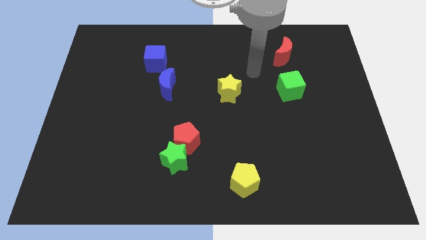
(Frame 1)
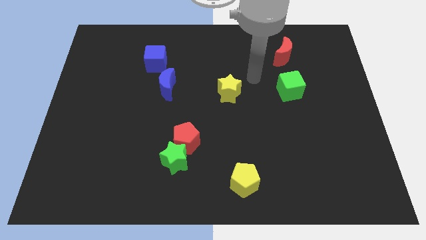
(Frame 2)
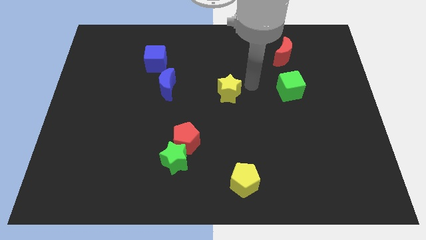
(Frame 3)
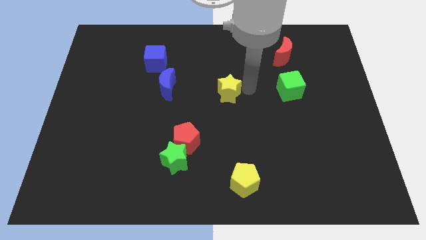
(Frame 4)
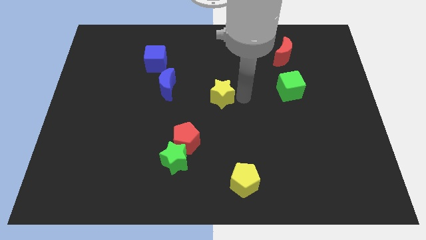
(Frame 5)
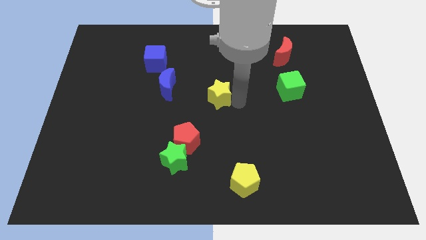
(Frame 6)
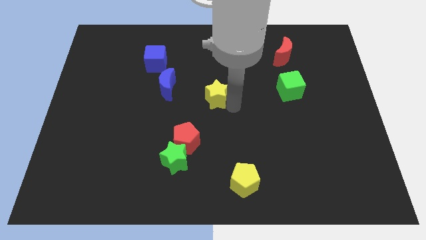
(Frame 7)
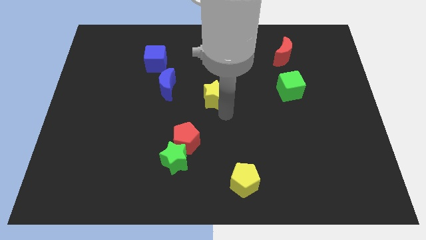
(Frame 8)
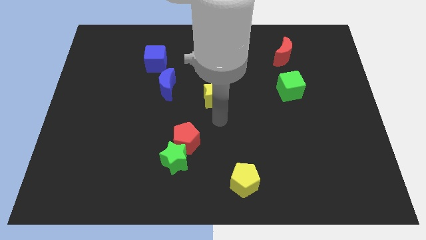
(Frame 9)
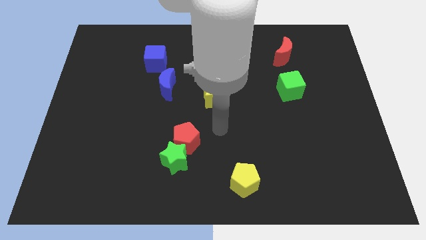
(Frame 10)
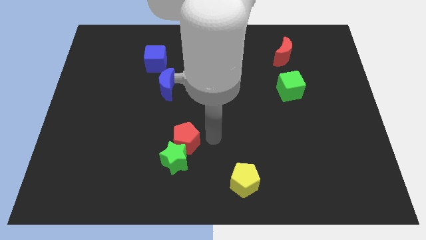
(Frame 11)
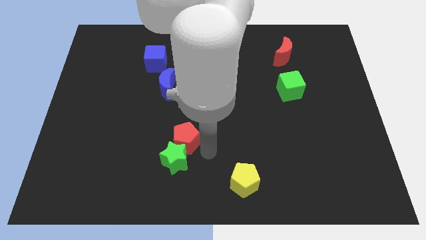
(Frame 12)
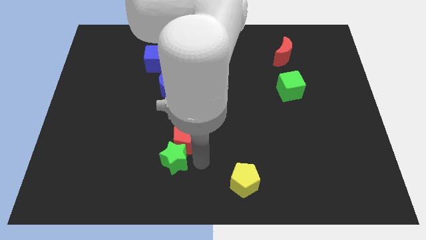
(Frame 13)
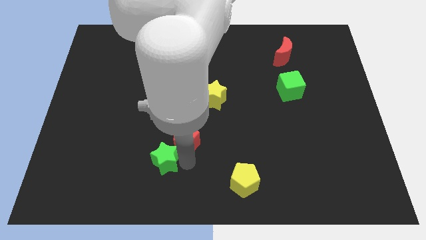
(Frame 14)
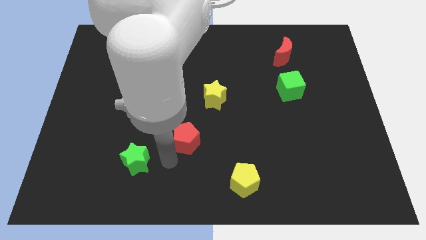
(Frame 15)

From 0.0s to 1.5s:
pull the red pentagon apart from the green star

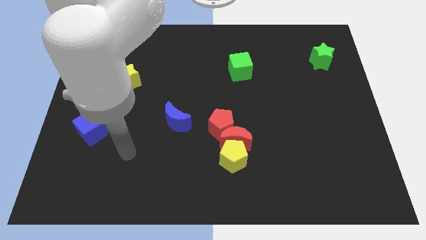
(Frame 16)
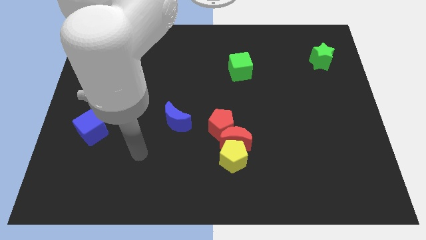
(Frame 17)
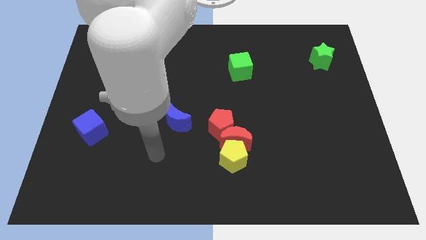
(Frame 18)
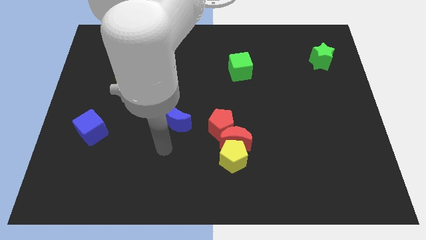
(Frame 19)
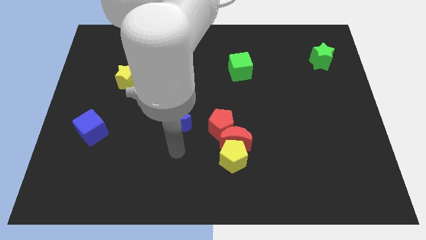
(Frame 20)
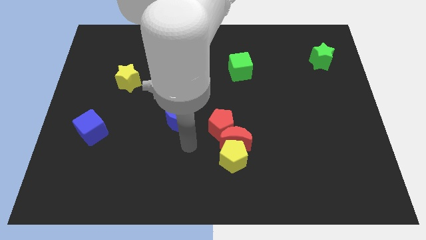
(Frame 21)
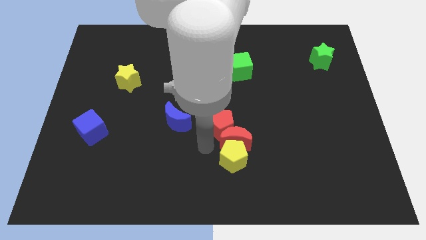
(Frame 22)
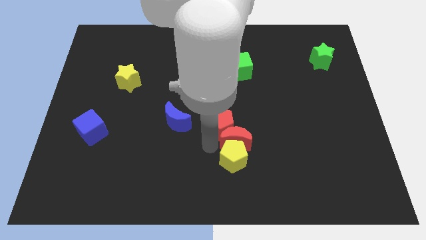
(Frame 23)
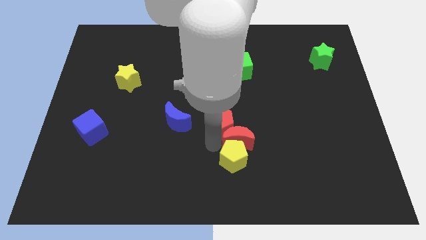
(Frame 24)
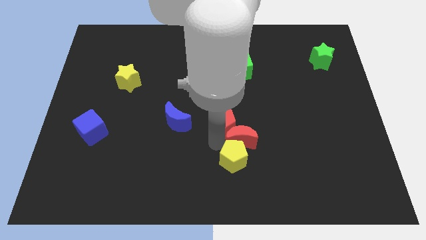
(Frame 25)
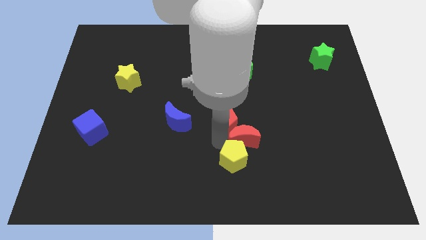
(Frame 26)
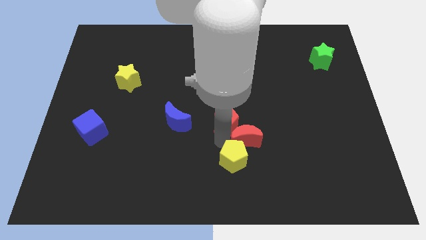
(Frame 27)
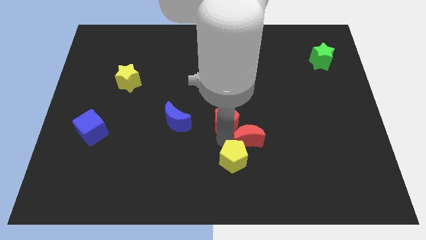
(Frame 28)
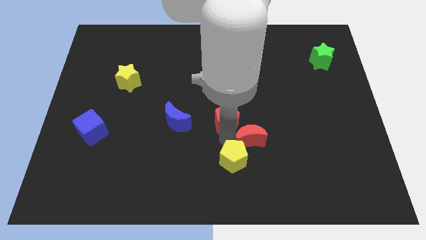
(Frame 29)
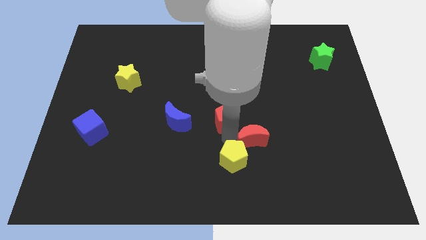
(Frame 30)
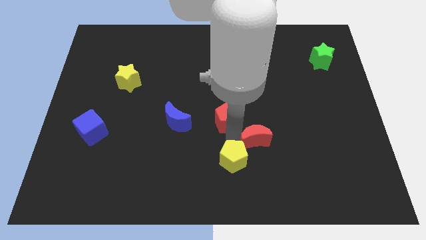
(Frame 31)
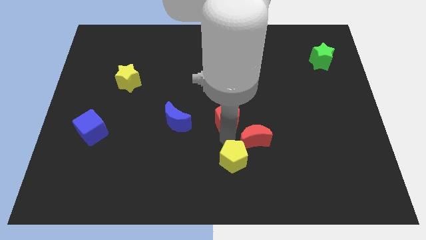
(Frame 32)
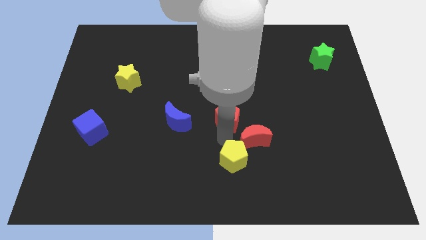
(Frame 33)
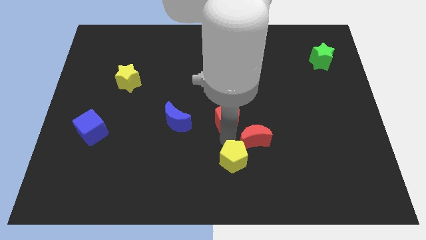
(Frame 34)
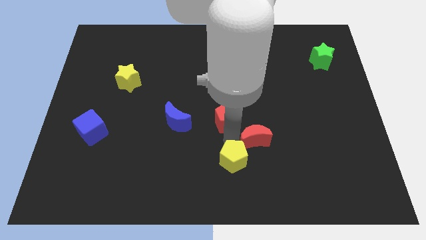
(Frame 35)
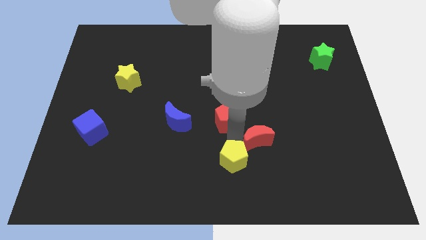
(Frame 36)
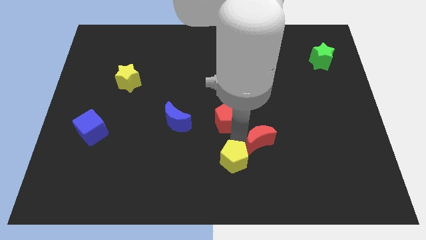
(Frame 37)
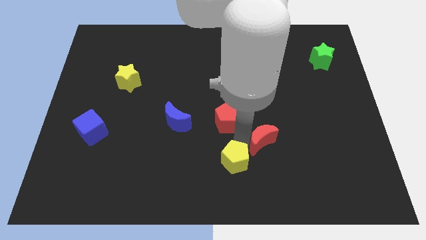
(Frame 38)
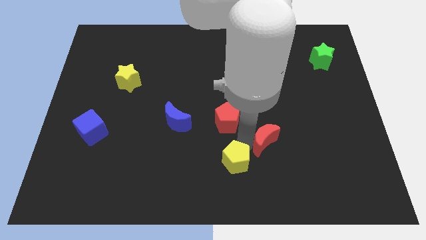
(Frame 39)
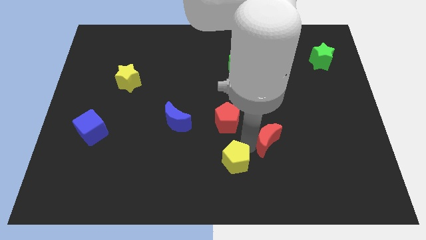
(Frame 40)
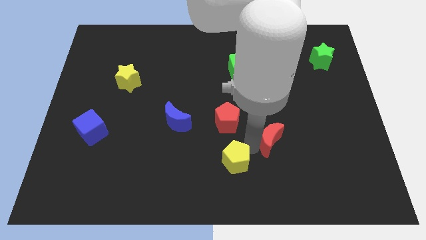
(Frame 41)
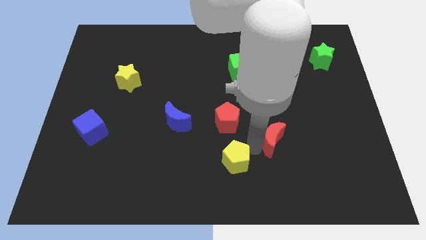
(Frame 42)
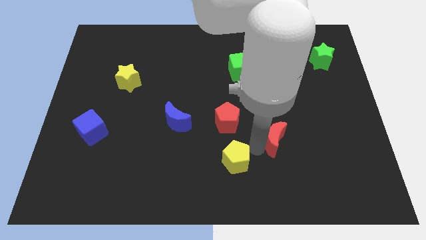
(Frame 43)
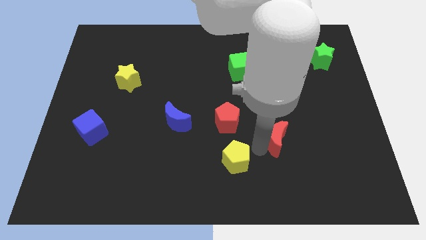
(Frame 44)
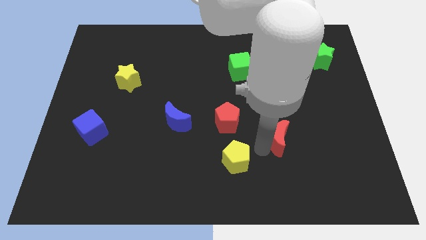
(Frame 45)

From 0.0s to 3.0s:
separate the red moon from the yellow pentagon and red pentagon

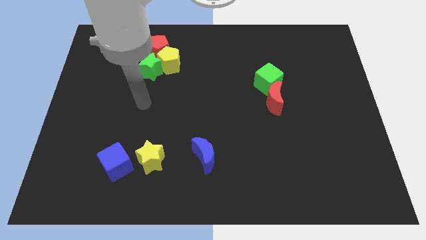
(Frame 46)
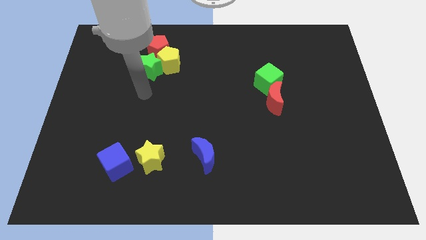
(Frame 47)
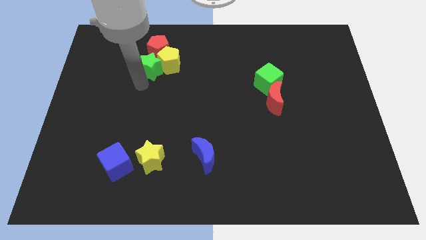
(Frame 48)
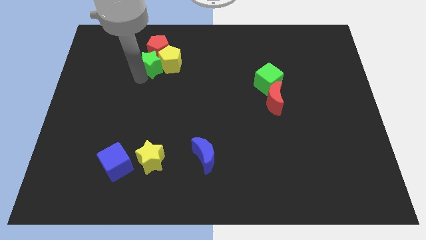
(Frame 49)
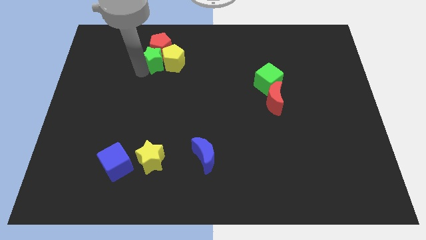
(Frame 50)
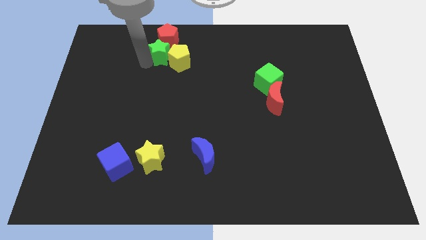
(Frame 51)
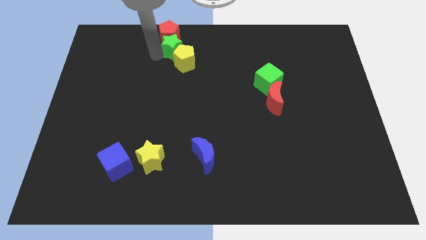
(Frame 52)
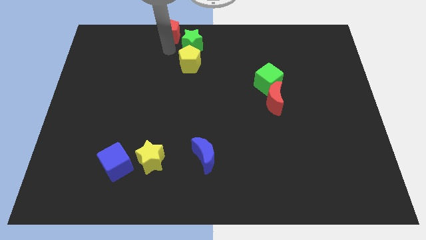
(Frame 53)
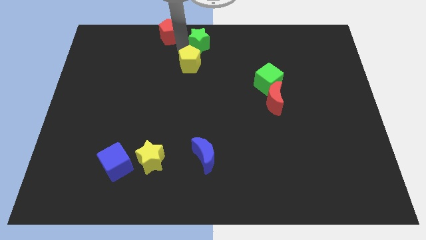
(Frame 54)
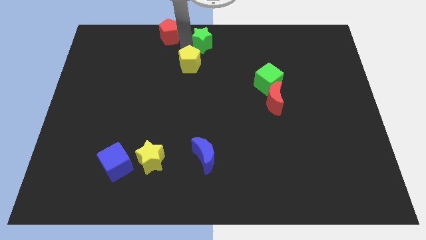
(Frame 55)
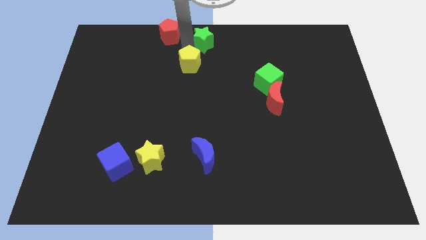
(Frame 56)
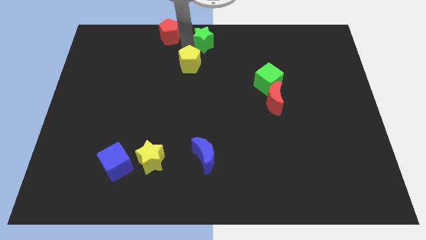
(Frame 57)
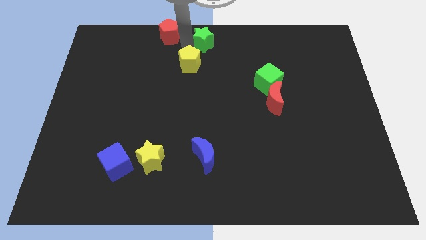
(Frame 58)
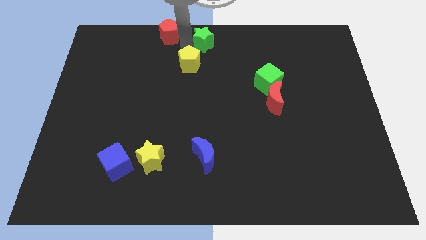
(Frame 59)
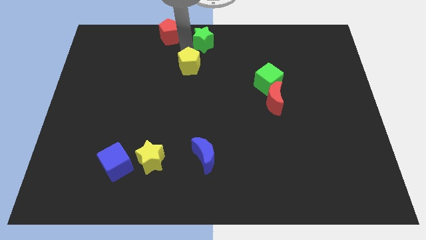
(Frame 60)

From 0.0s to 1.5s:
move the yellow pentagon away from the red pentagon and green star

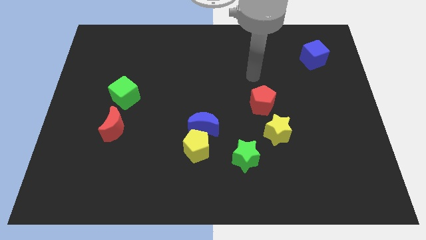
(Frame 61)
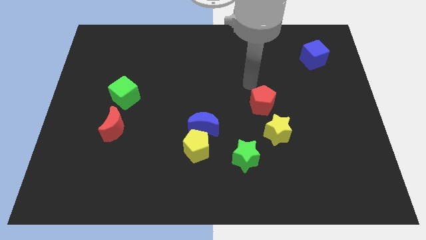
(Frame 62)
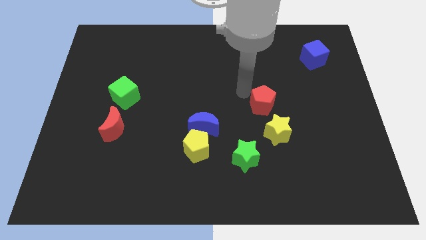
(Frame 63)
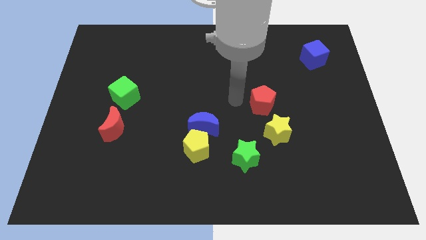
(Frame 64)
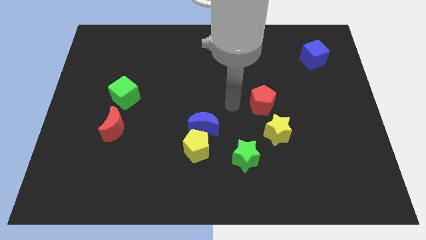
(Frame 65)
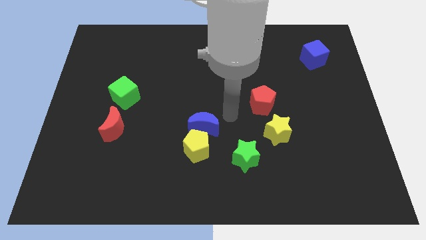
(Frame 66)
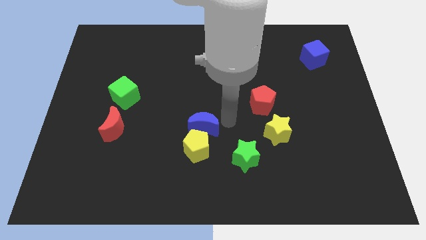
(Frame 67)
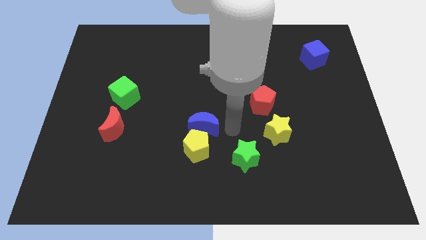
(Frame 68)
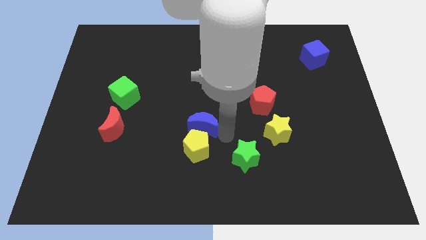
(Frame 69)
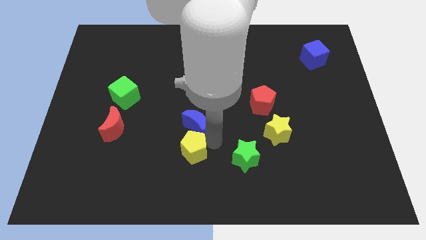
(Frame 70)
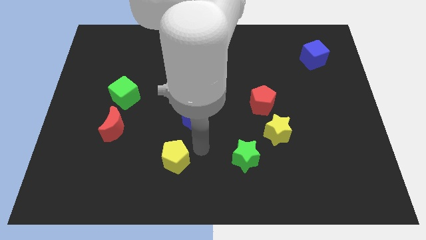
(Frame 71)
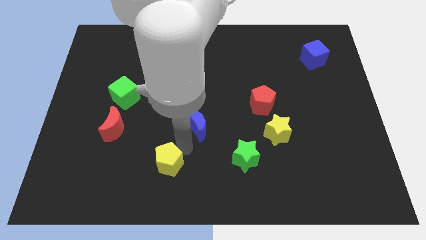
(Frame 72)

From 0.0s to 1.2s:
move the blue moon away from the yellow pentagon

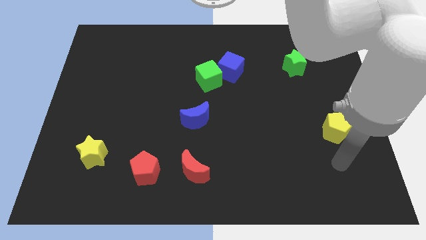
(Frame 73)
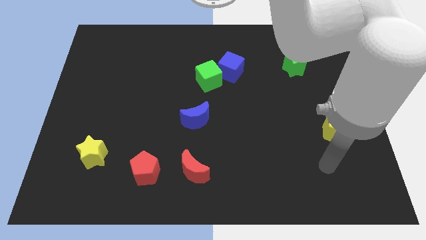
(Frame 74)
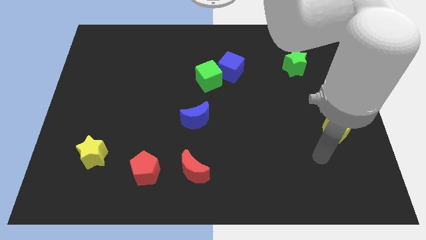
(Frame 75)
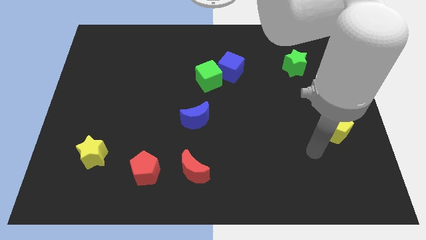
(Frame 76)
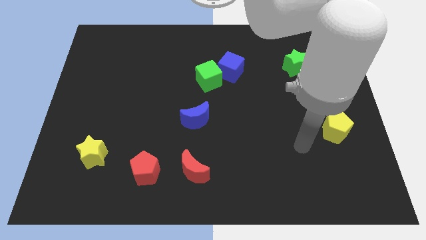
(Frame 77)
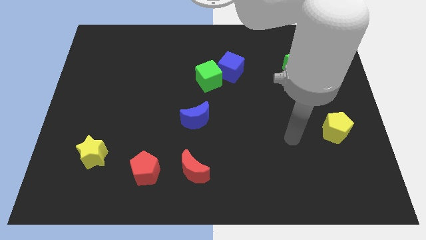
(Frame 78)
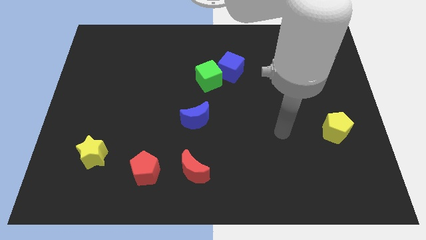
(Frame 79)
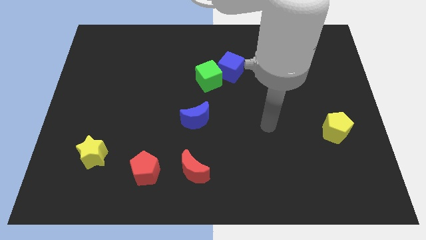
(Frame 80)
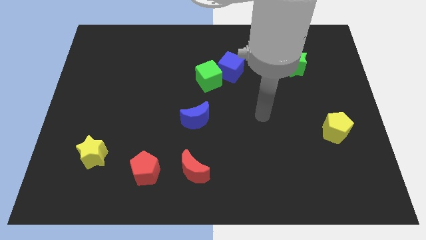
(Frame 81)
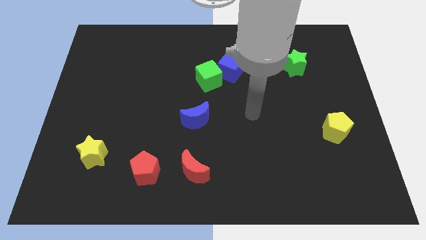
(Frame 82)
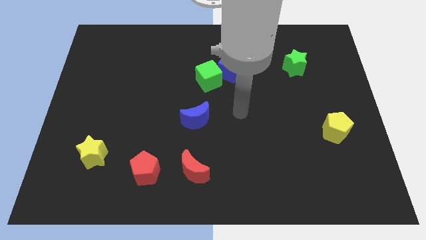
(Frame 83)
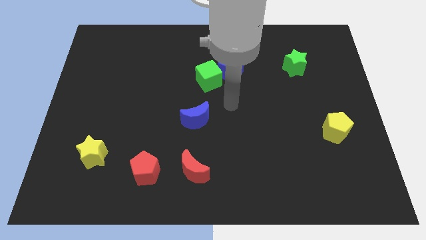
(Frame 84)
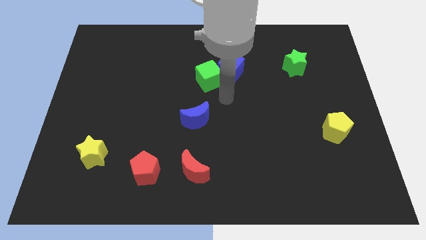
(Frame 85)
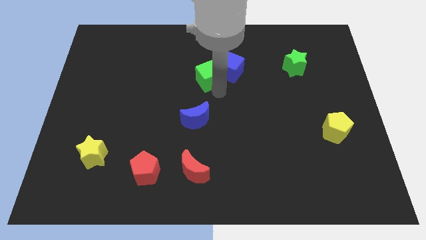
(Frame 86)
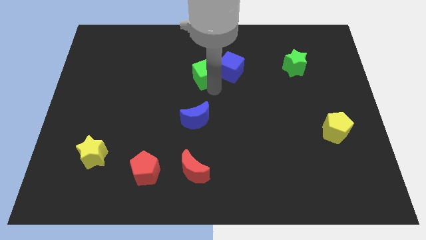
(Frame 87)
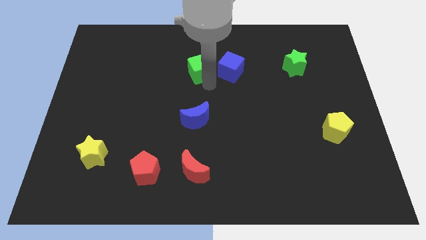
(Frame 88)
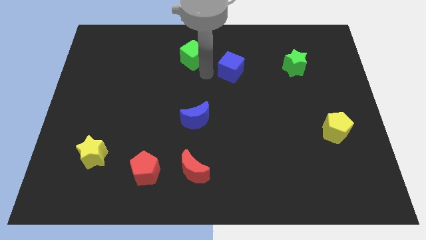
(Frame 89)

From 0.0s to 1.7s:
separate the blue cube from the green cube

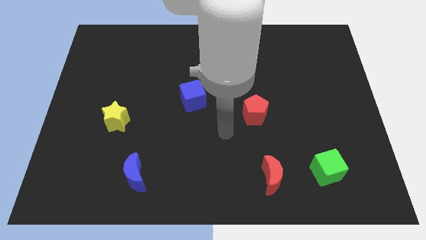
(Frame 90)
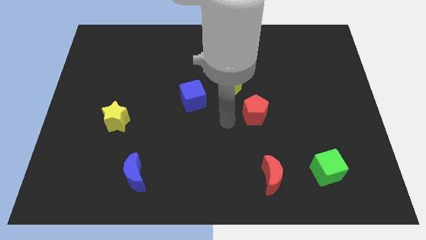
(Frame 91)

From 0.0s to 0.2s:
separate the blue cube from the yellow pentagon
